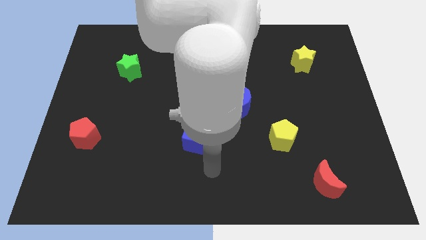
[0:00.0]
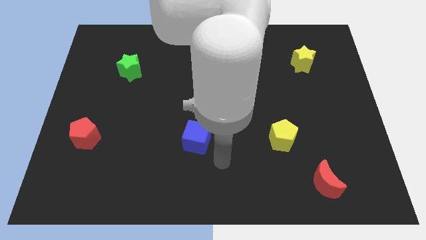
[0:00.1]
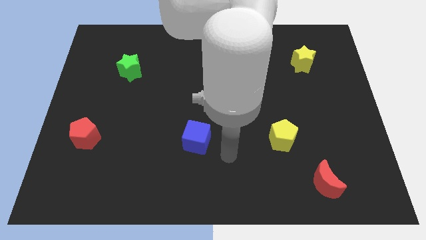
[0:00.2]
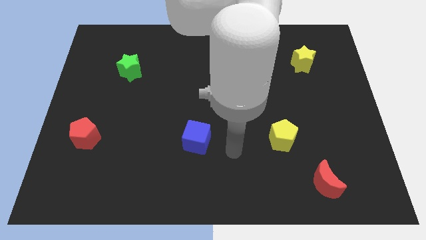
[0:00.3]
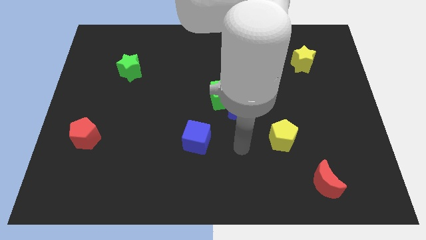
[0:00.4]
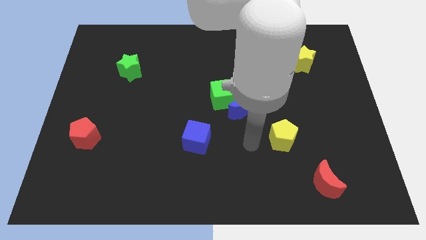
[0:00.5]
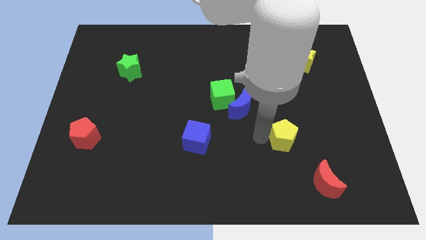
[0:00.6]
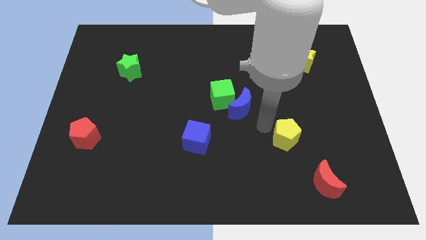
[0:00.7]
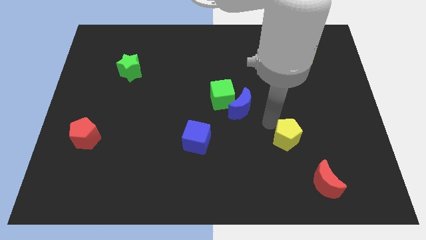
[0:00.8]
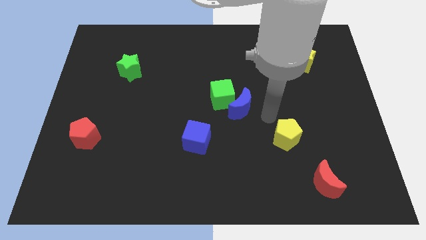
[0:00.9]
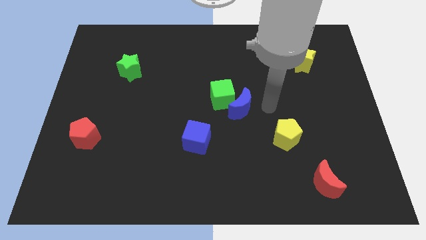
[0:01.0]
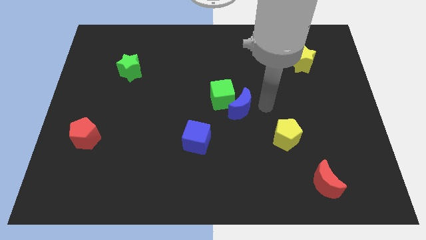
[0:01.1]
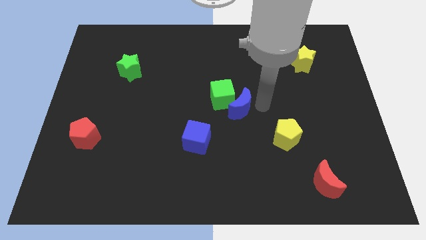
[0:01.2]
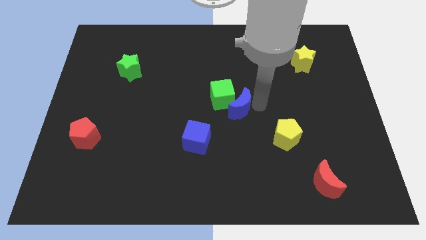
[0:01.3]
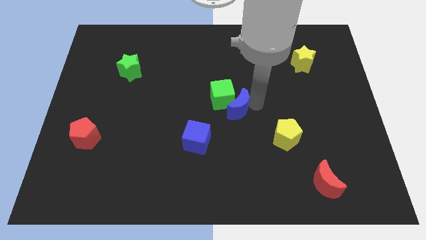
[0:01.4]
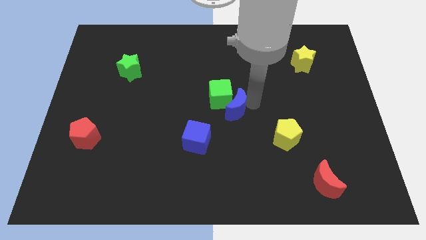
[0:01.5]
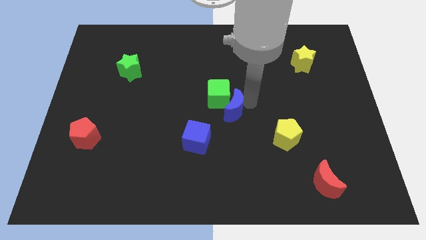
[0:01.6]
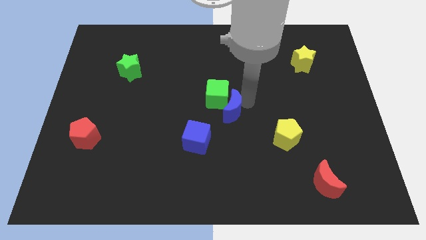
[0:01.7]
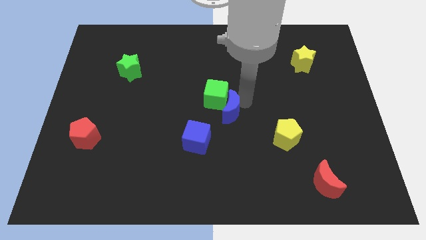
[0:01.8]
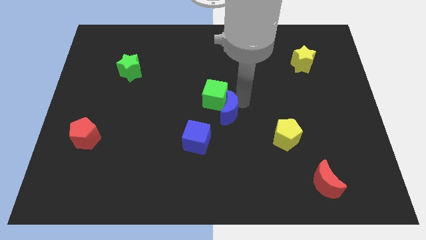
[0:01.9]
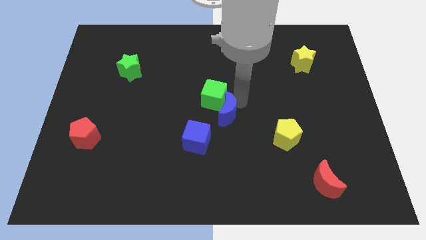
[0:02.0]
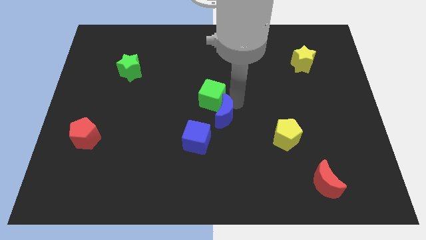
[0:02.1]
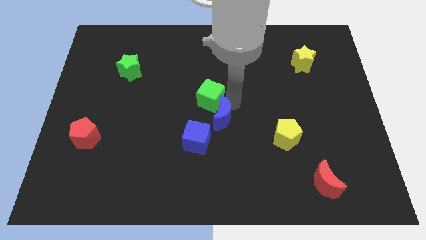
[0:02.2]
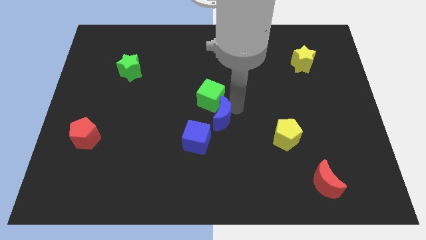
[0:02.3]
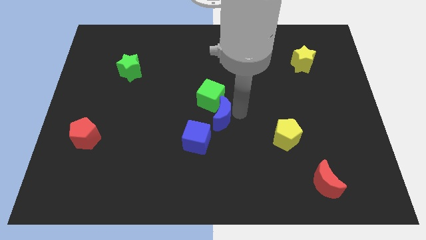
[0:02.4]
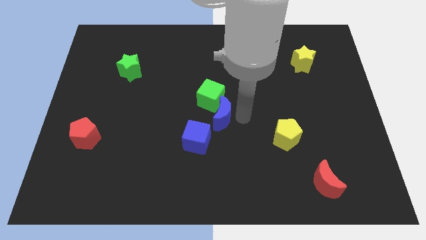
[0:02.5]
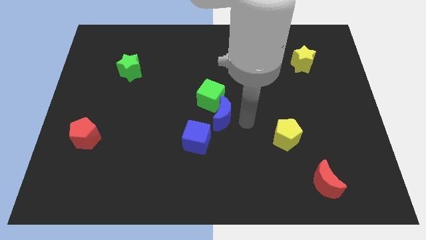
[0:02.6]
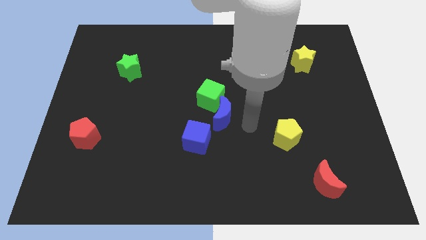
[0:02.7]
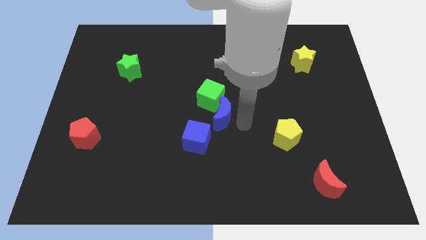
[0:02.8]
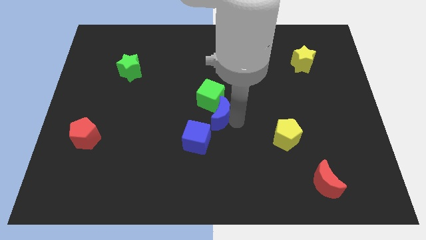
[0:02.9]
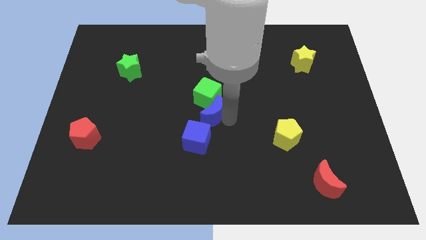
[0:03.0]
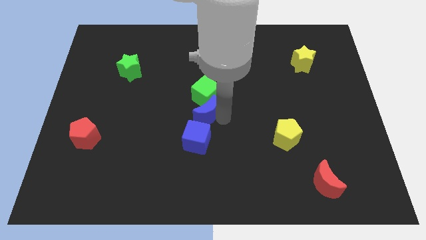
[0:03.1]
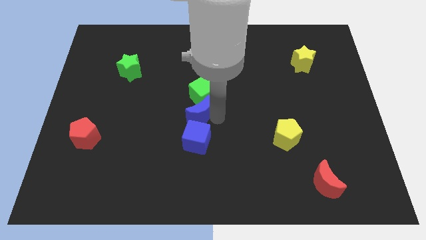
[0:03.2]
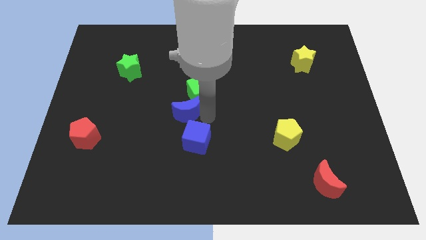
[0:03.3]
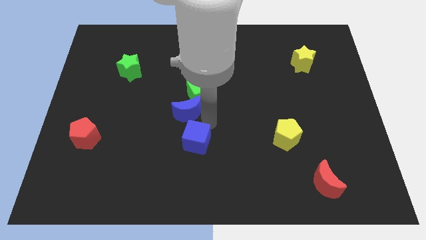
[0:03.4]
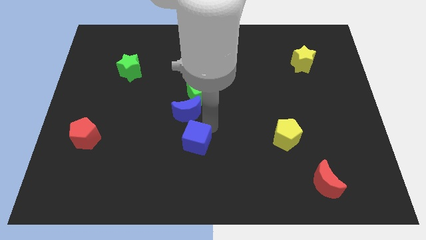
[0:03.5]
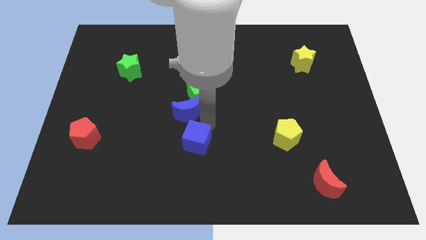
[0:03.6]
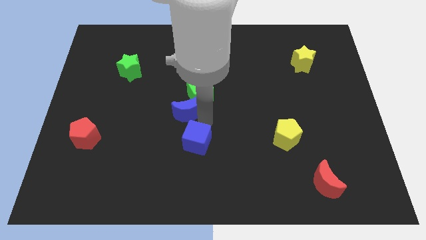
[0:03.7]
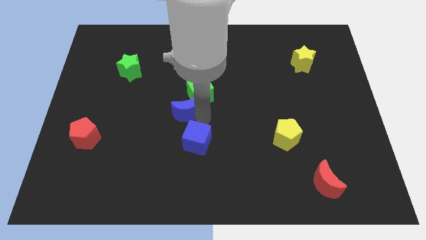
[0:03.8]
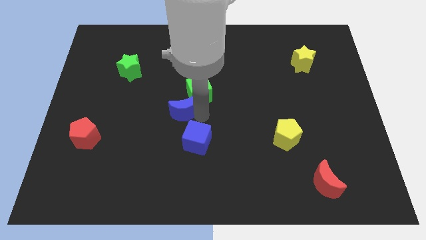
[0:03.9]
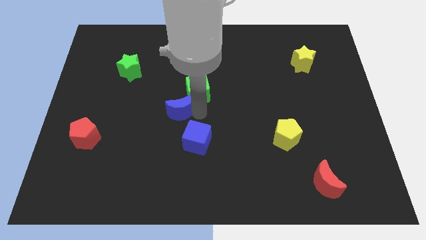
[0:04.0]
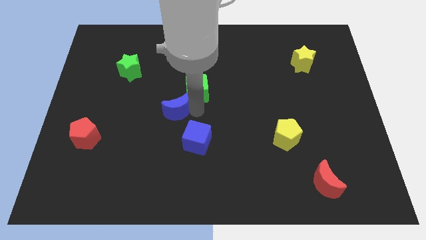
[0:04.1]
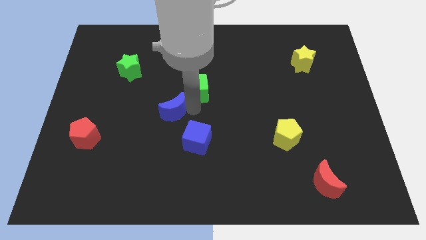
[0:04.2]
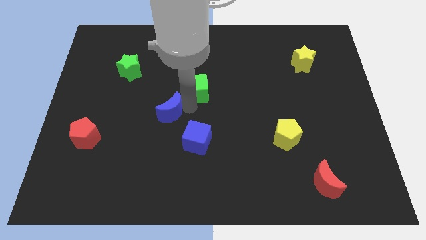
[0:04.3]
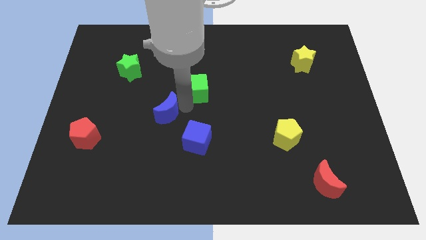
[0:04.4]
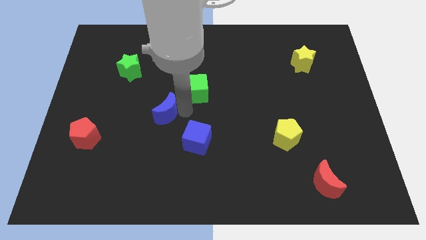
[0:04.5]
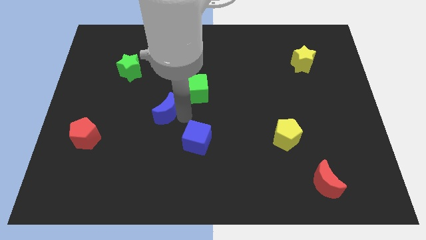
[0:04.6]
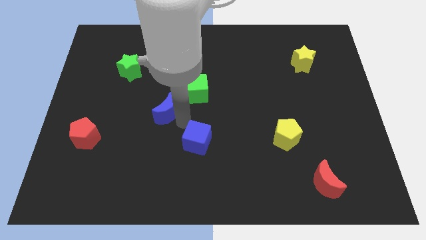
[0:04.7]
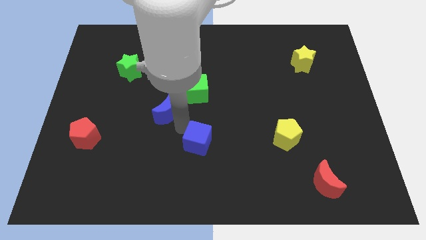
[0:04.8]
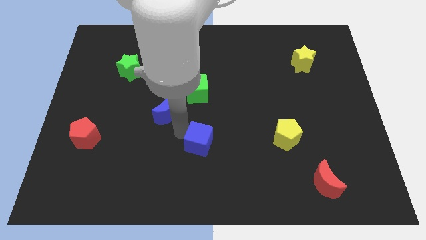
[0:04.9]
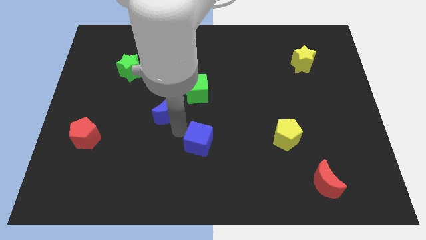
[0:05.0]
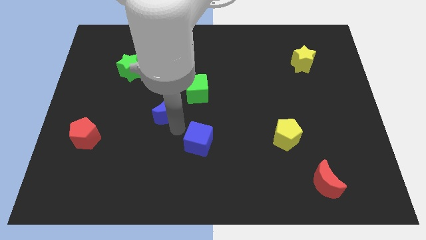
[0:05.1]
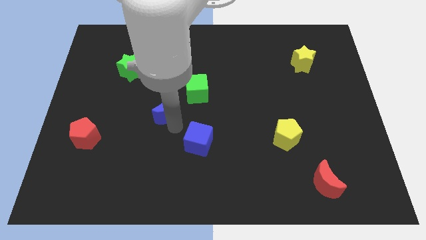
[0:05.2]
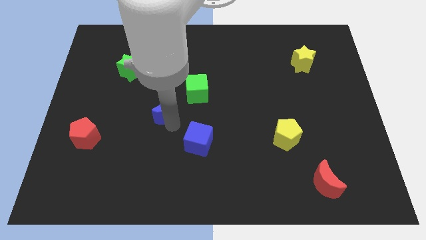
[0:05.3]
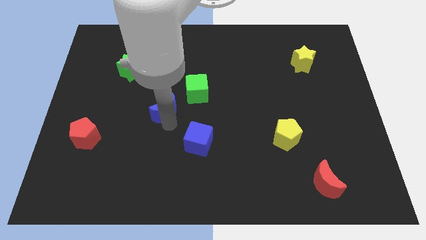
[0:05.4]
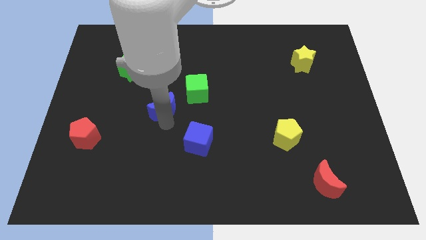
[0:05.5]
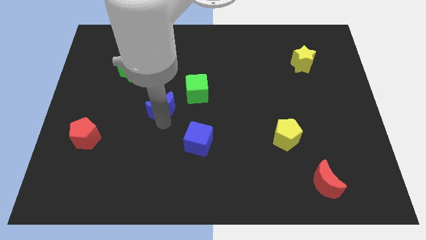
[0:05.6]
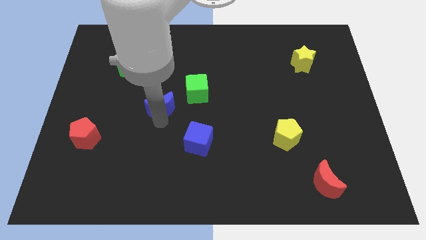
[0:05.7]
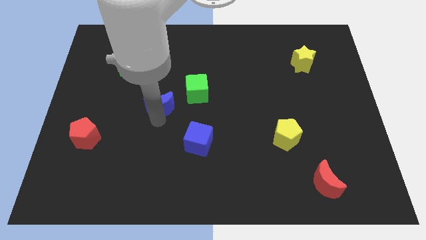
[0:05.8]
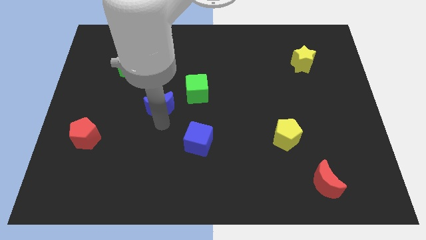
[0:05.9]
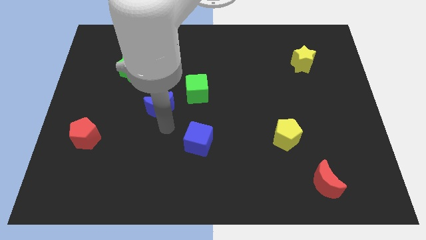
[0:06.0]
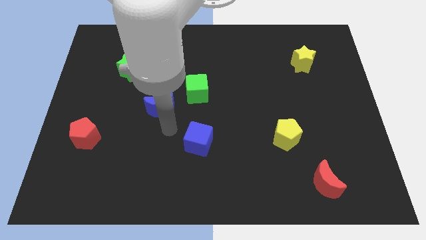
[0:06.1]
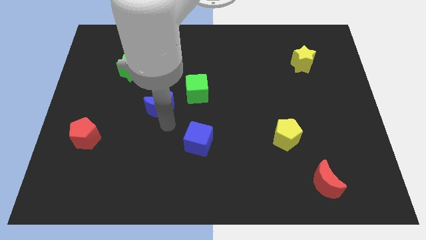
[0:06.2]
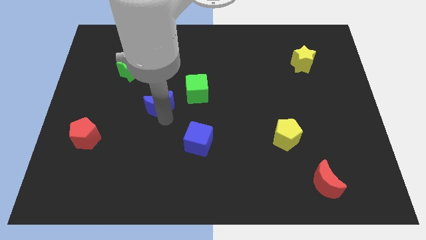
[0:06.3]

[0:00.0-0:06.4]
push the blue moon to the left side of the green cube

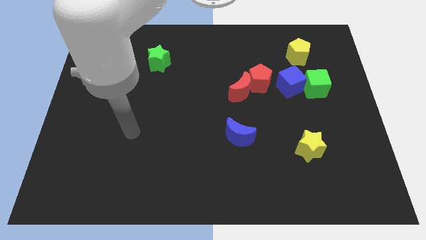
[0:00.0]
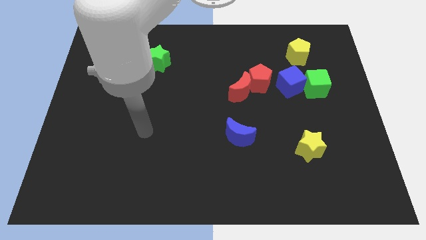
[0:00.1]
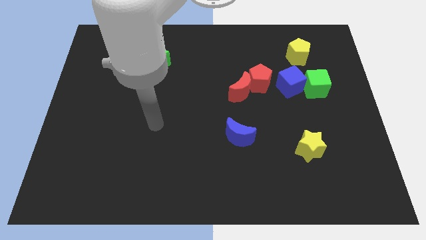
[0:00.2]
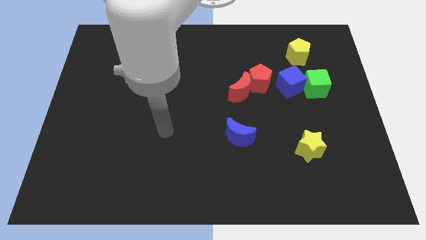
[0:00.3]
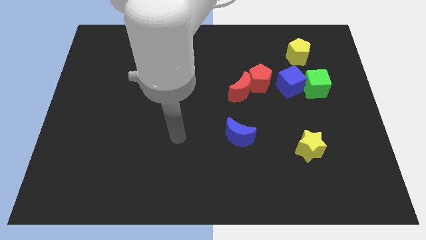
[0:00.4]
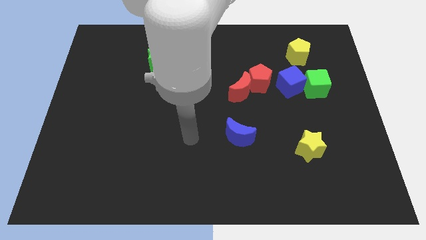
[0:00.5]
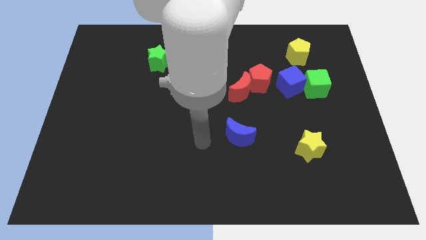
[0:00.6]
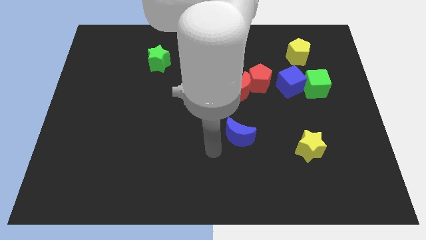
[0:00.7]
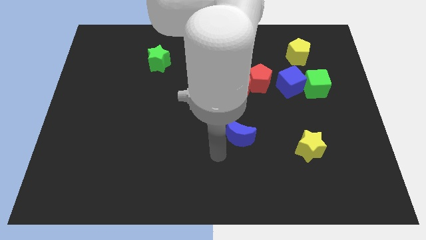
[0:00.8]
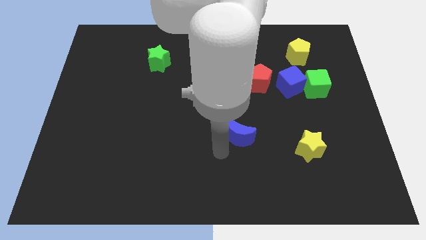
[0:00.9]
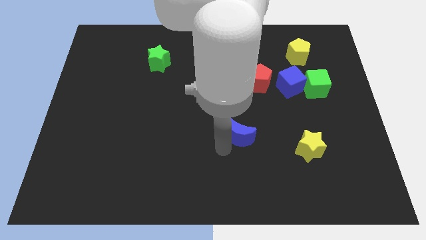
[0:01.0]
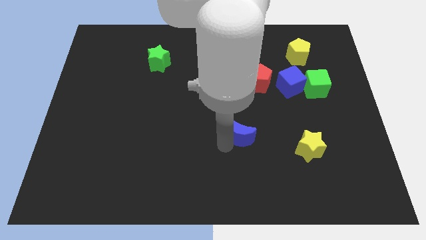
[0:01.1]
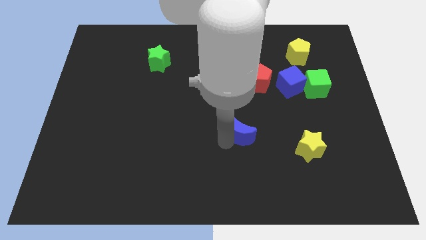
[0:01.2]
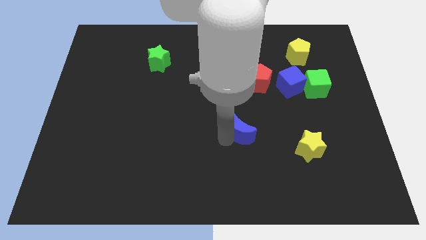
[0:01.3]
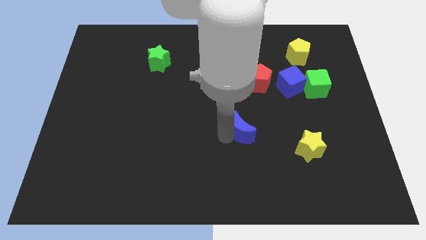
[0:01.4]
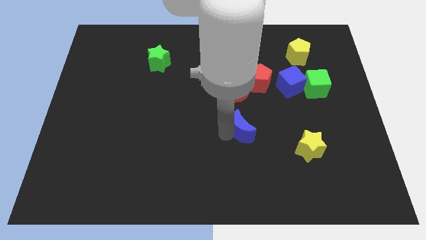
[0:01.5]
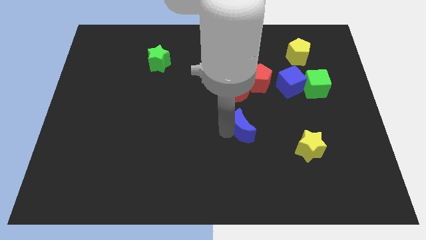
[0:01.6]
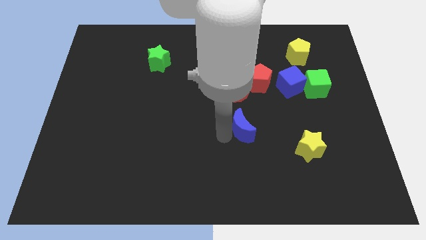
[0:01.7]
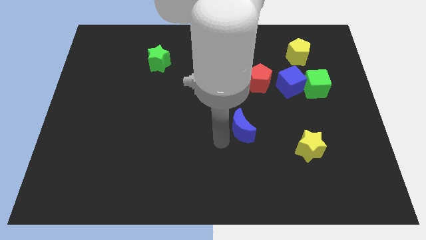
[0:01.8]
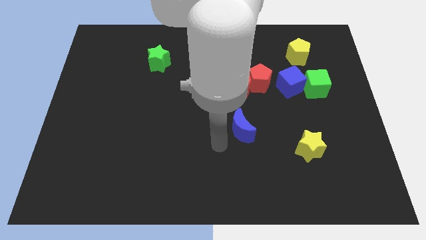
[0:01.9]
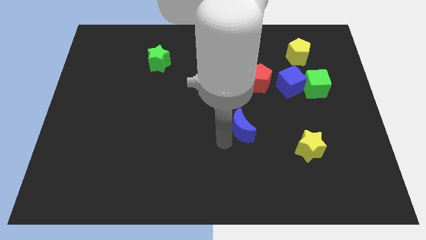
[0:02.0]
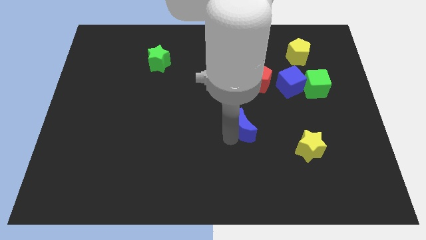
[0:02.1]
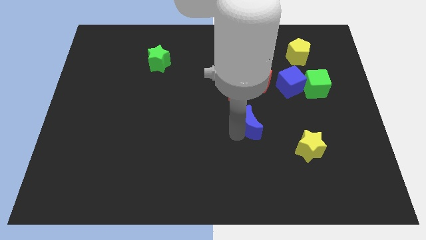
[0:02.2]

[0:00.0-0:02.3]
slide the blue moon below the red pentagon
